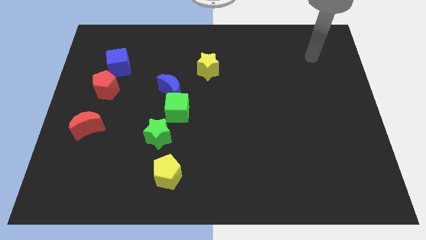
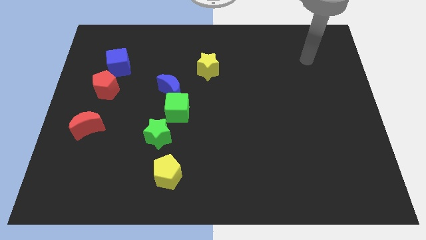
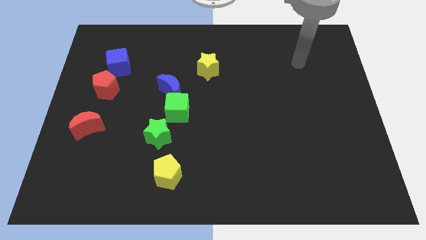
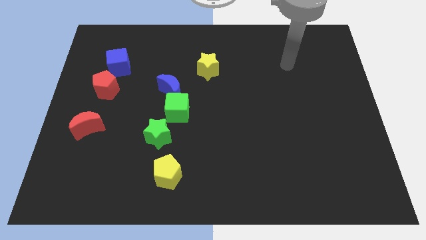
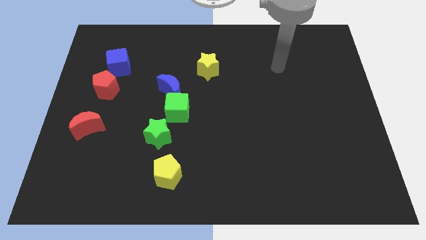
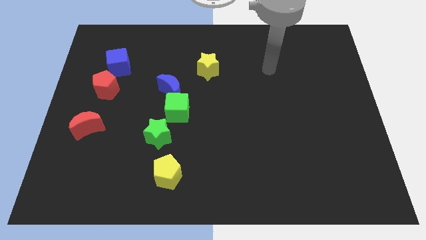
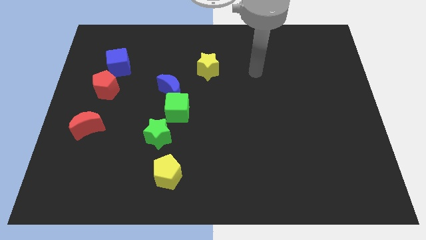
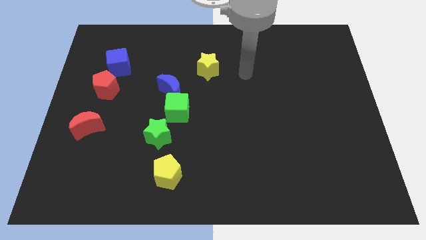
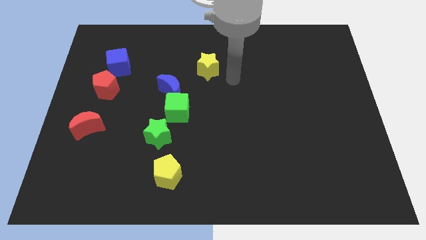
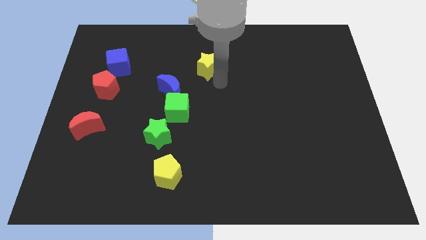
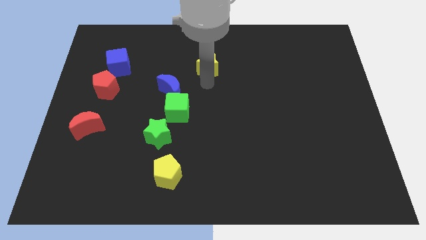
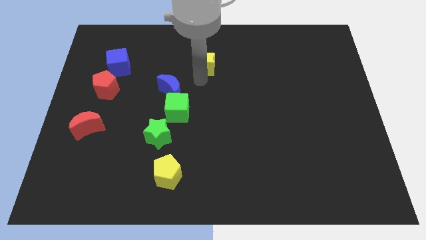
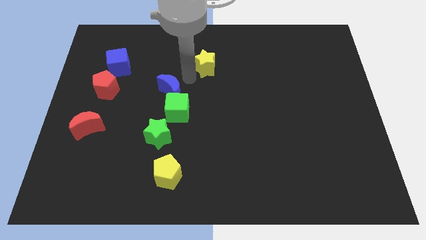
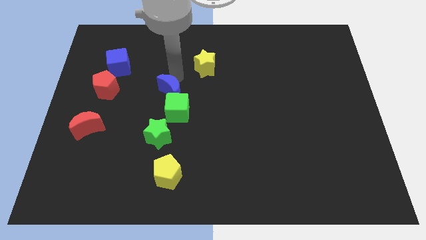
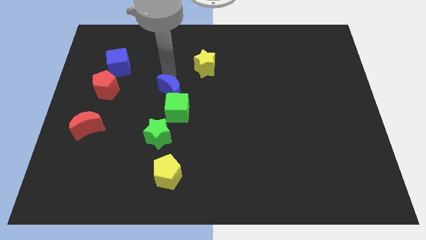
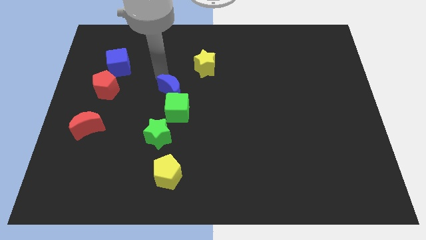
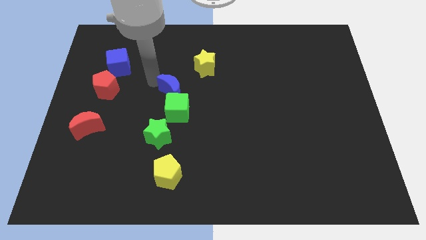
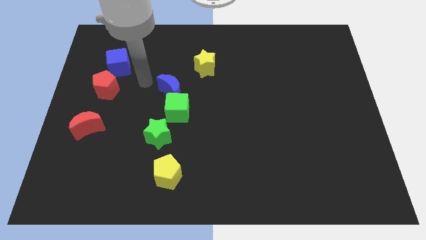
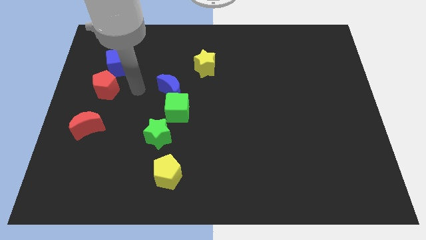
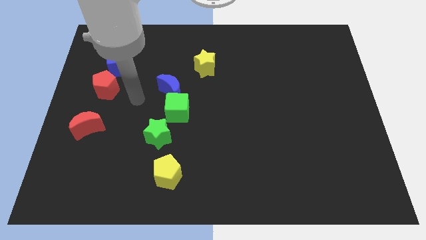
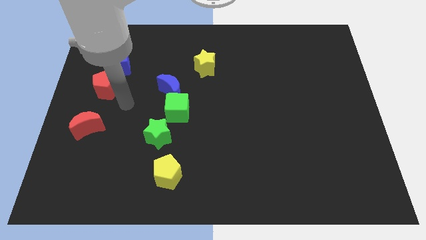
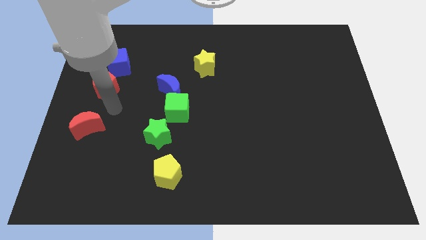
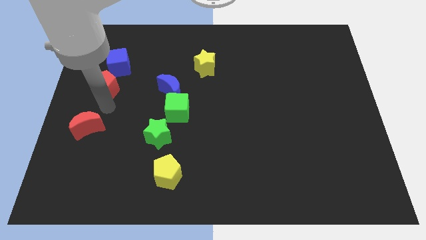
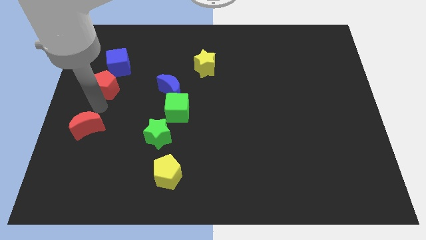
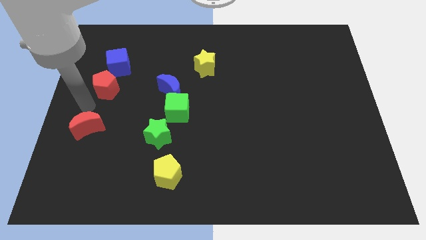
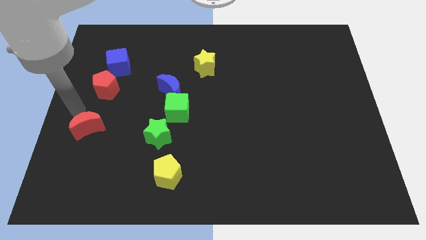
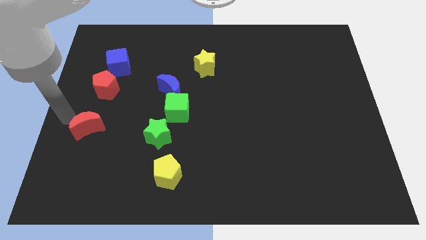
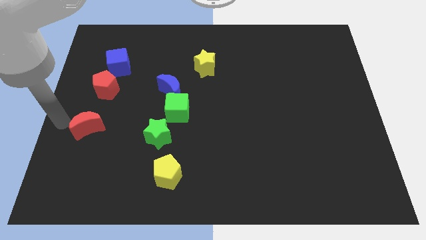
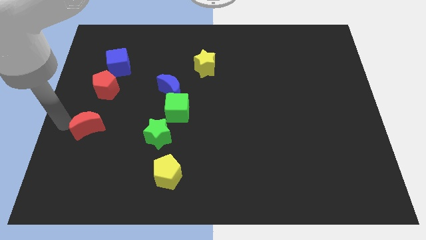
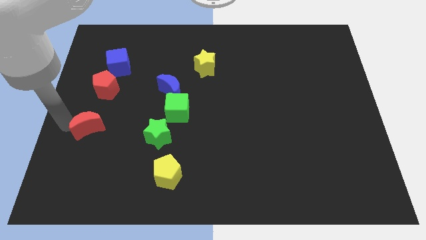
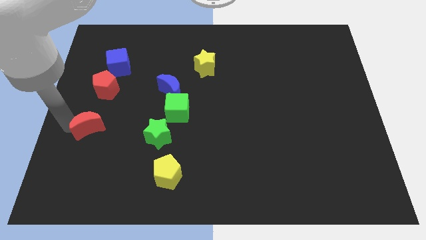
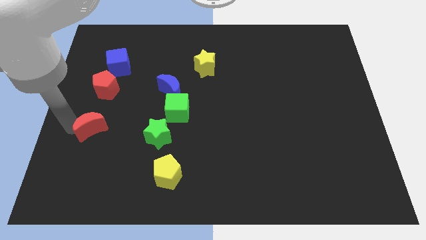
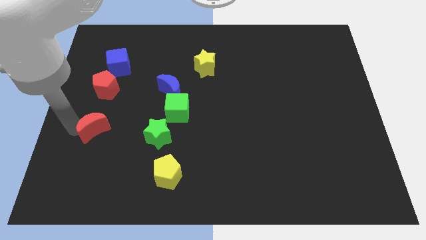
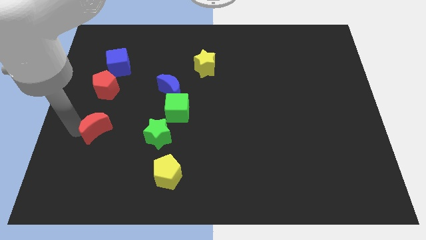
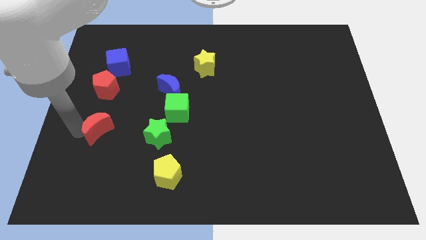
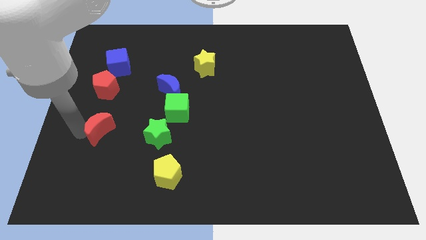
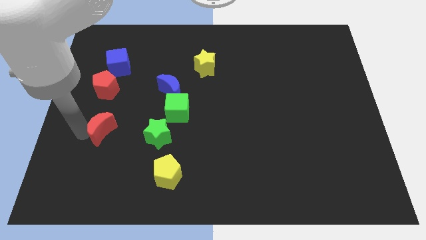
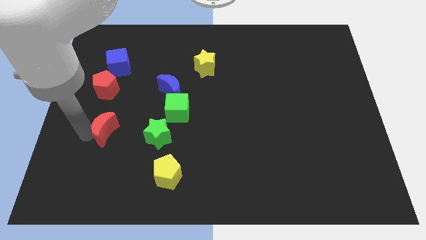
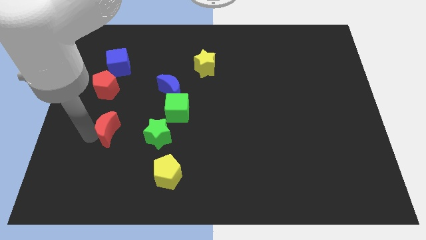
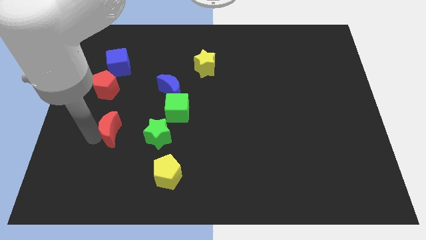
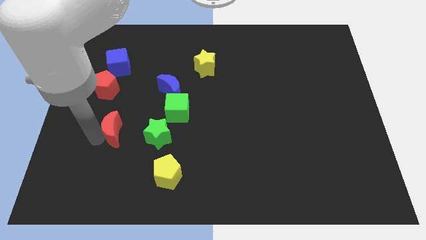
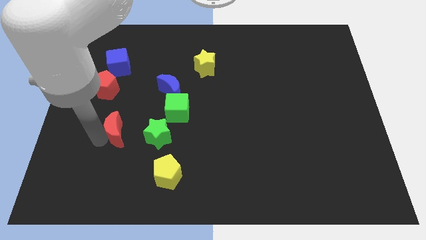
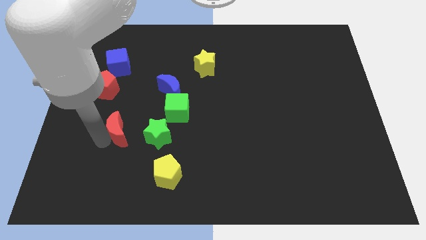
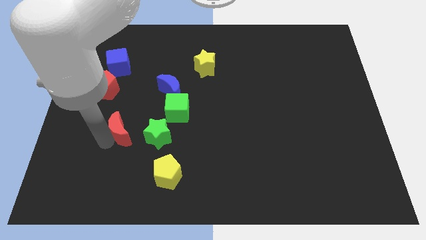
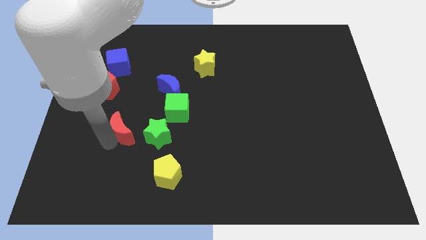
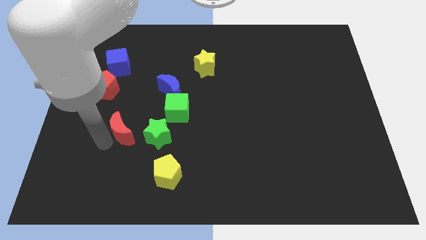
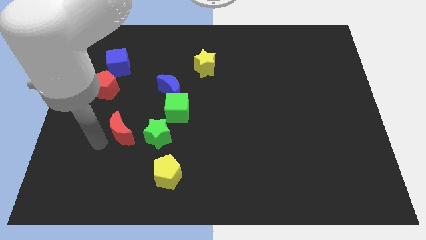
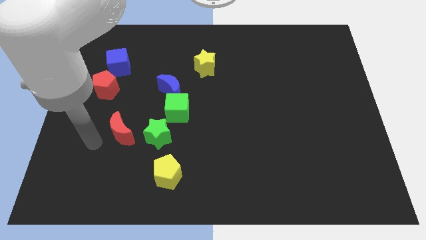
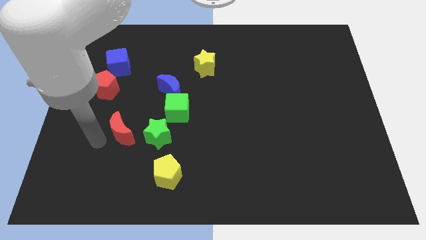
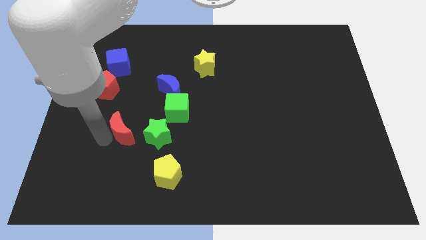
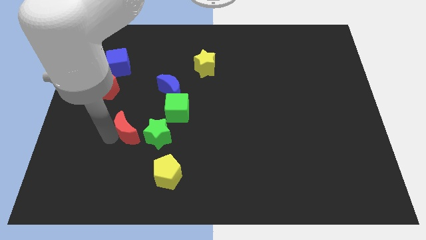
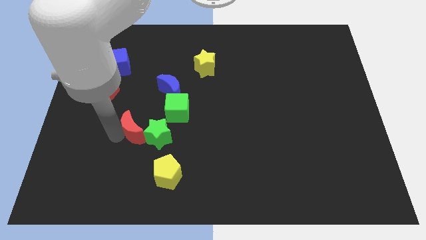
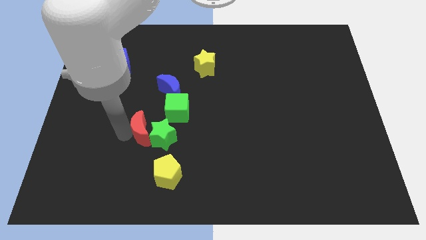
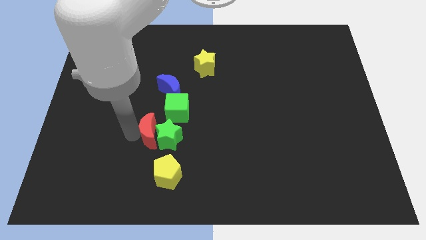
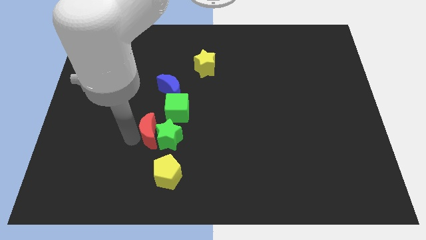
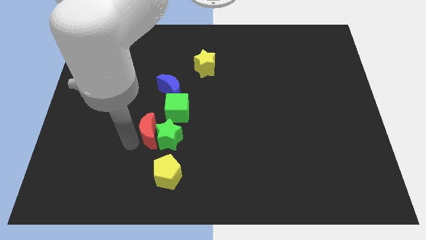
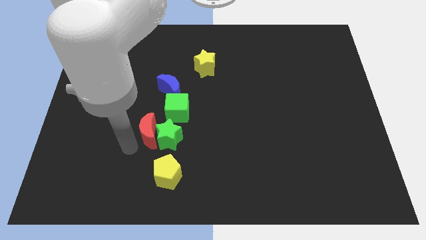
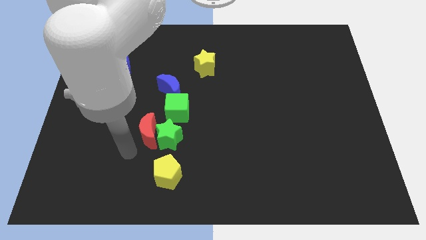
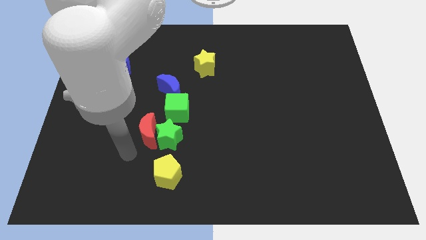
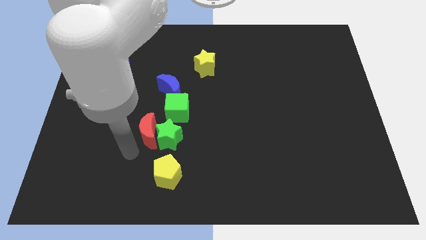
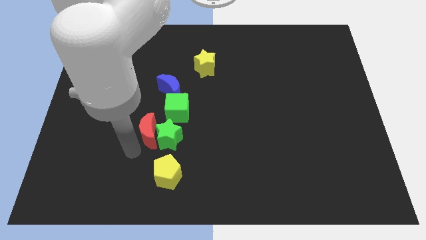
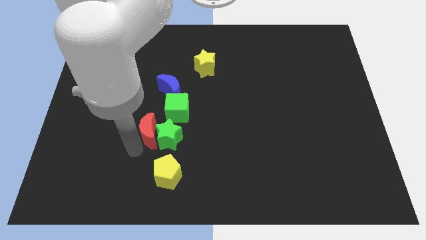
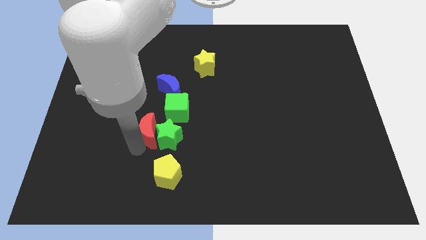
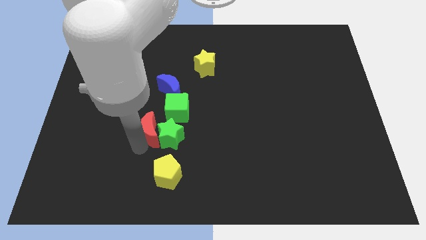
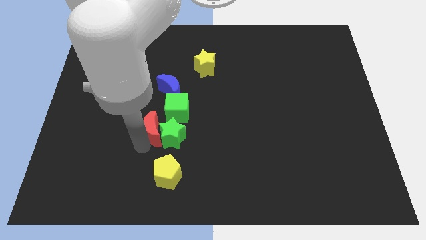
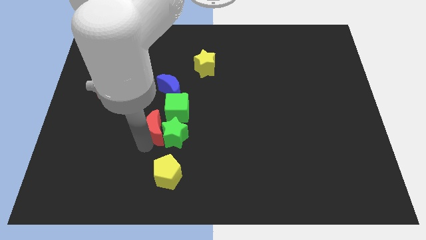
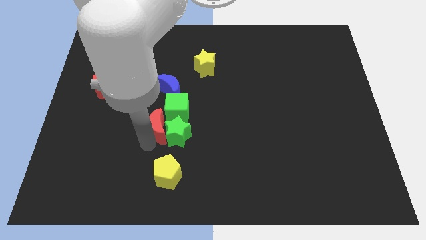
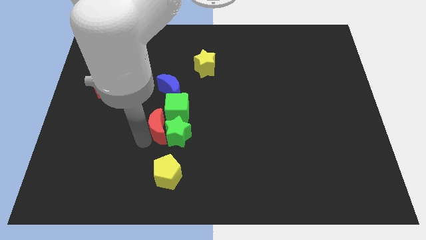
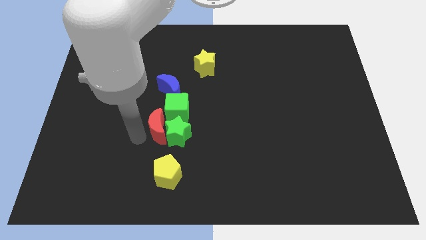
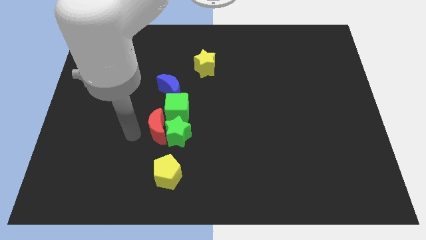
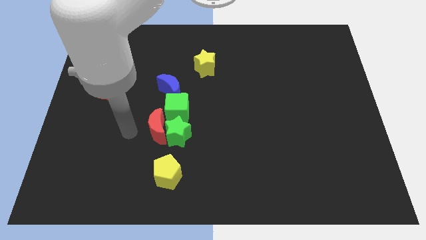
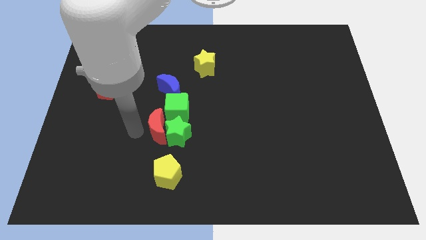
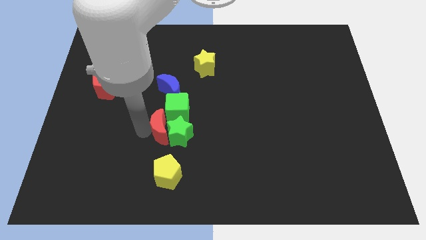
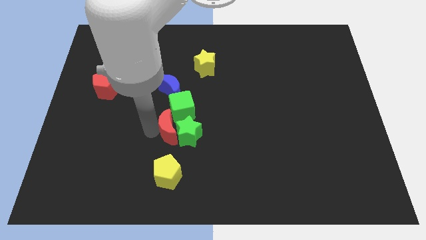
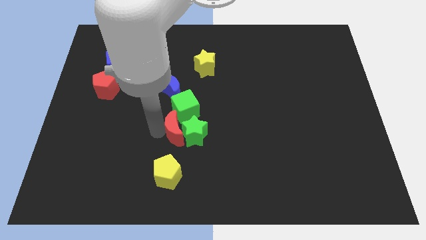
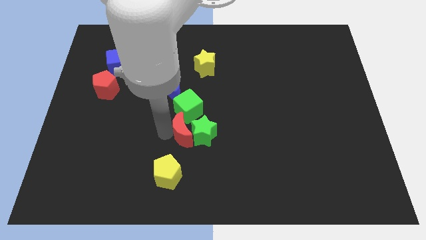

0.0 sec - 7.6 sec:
push the red moon to the right

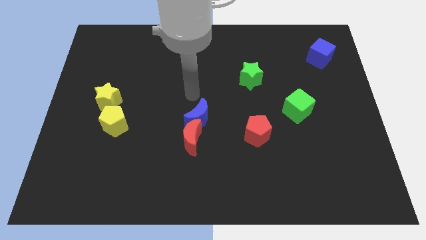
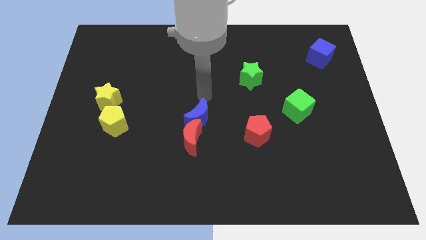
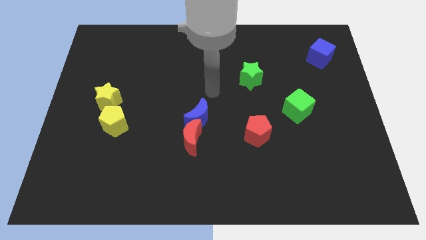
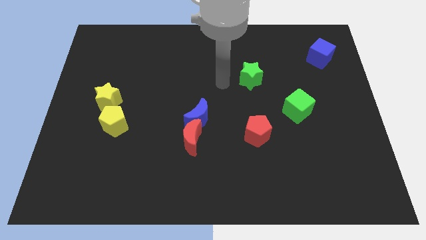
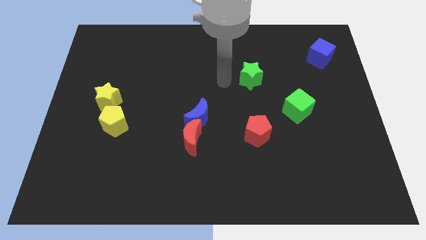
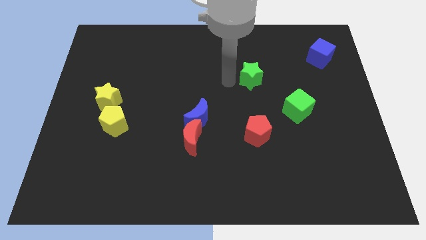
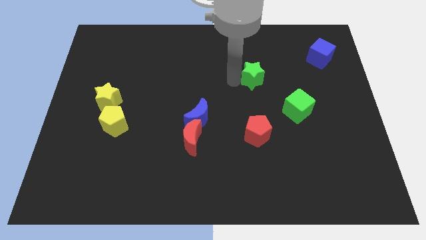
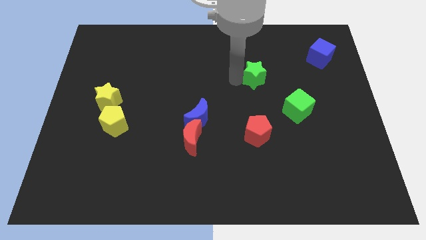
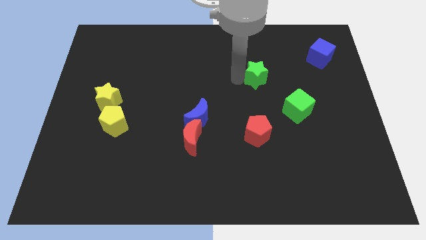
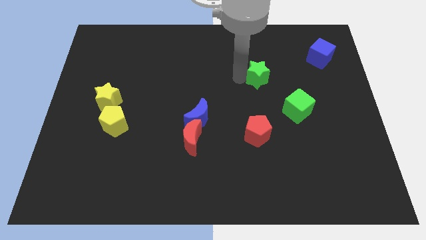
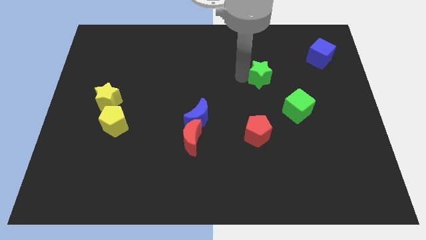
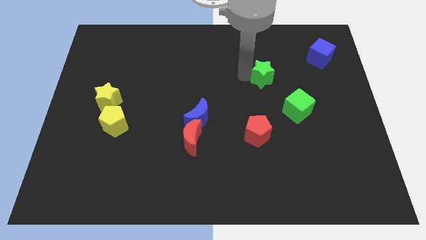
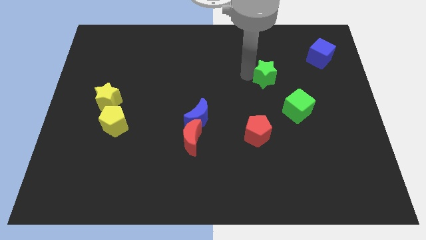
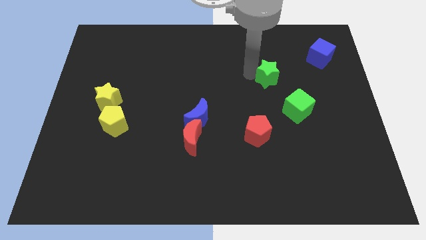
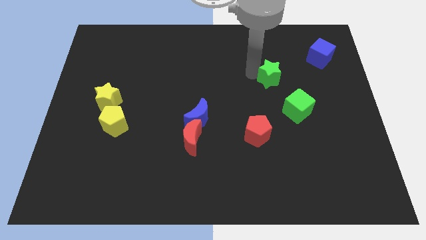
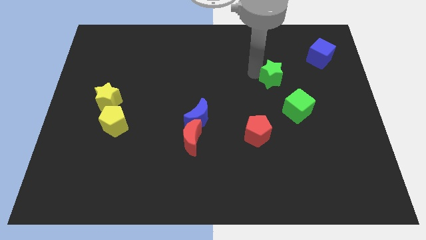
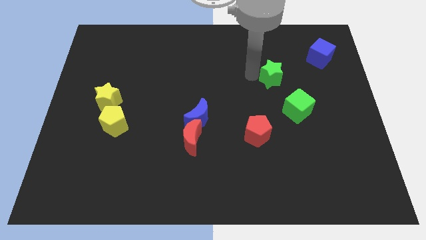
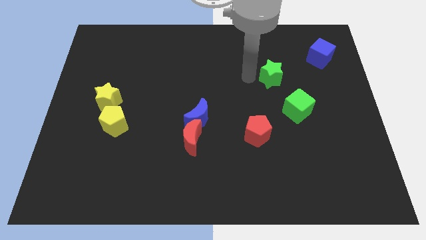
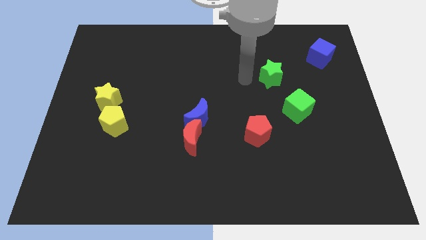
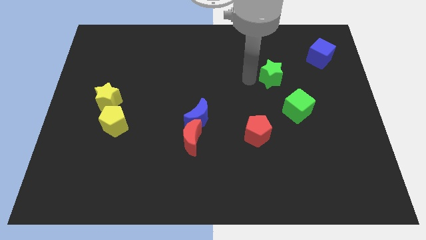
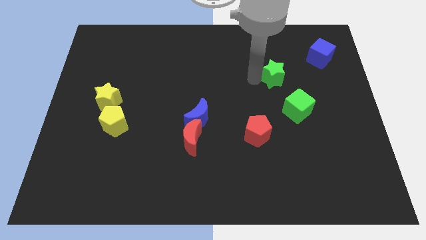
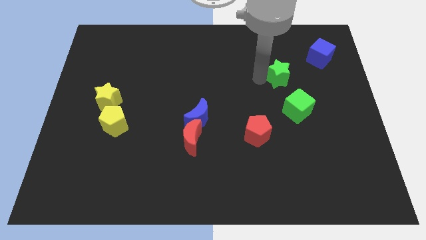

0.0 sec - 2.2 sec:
move the green star slightly right
